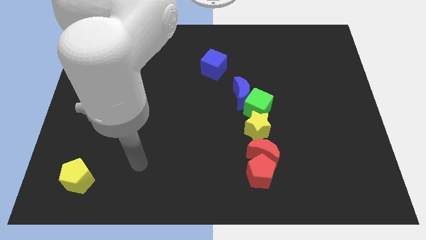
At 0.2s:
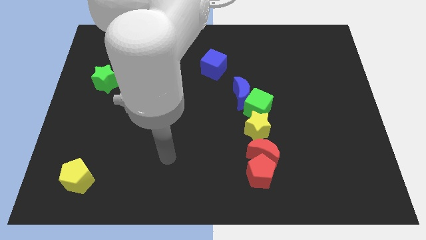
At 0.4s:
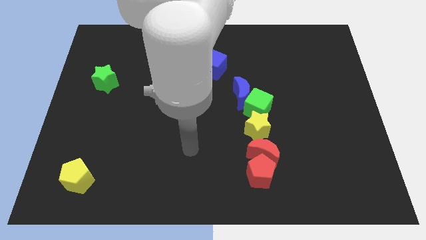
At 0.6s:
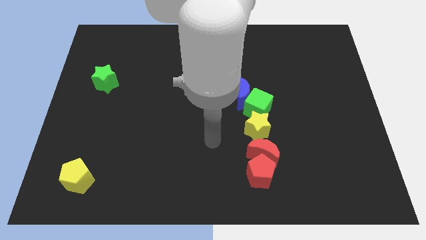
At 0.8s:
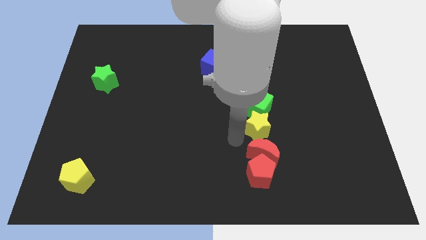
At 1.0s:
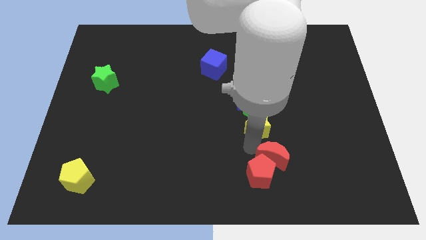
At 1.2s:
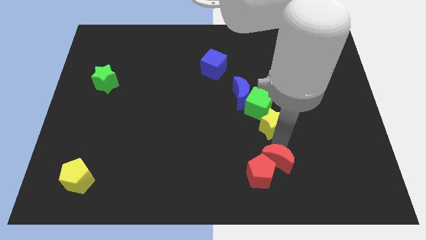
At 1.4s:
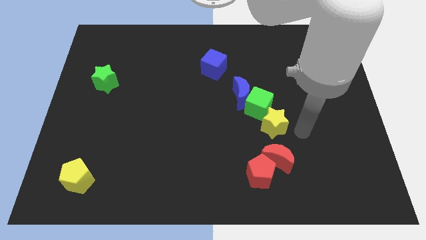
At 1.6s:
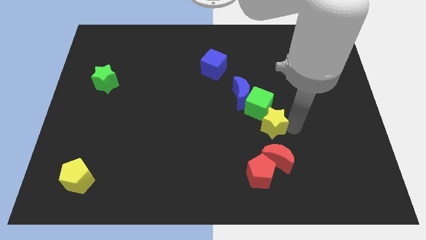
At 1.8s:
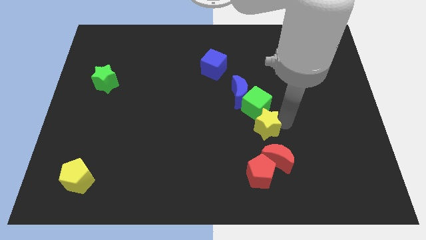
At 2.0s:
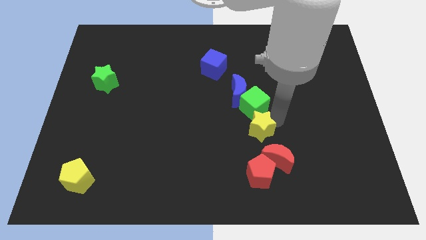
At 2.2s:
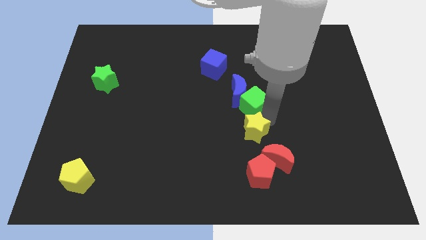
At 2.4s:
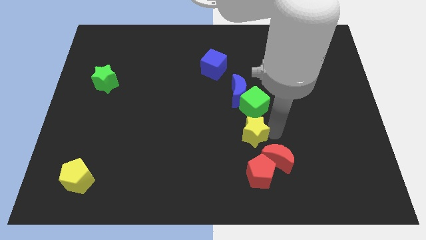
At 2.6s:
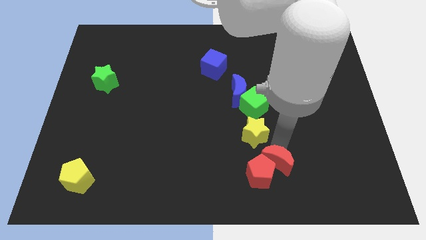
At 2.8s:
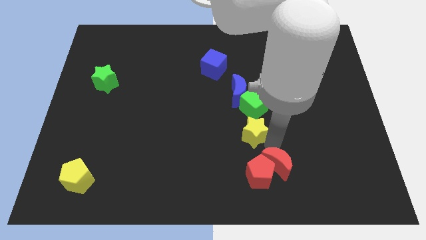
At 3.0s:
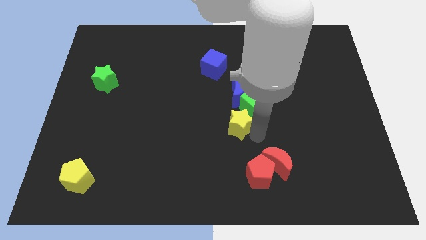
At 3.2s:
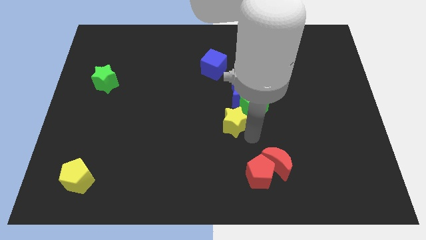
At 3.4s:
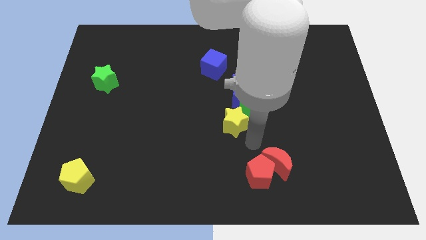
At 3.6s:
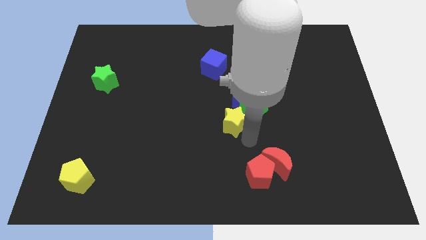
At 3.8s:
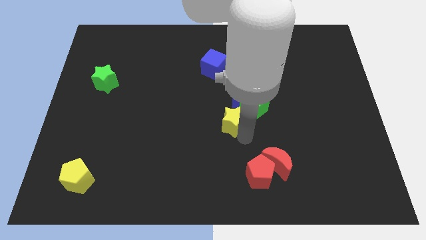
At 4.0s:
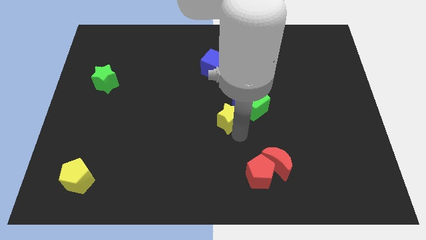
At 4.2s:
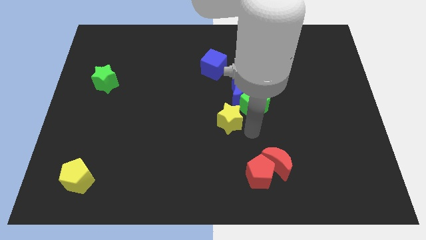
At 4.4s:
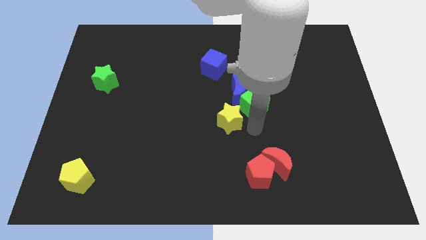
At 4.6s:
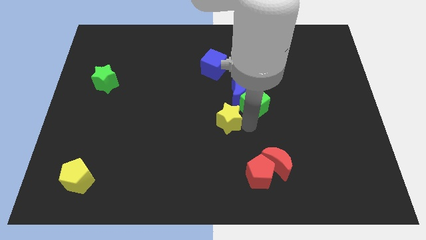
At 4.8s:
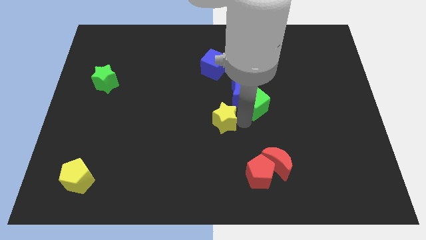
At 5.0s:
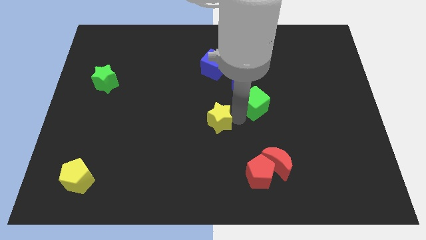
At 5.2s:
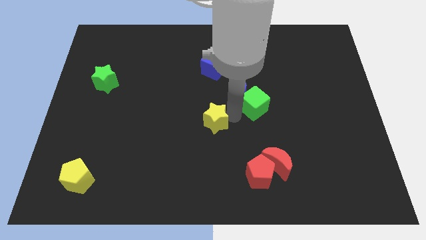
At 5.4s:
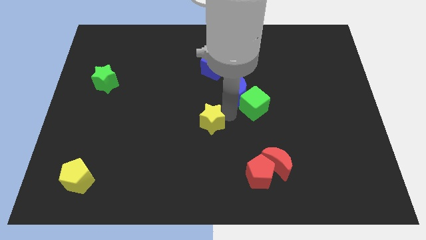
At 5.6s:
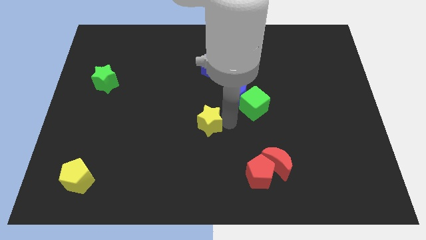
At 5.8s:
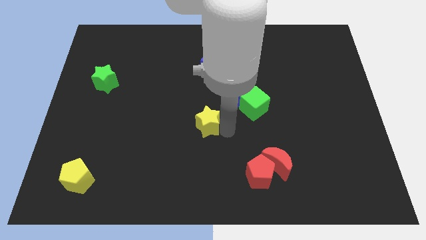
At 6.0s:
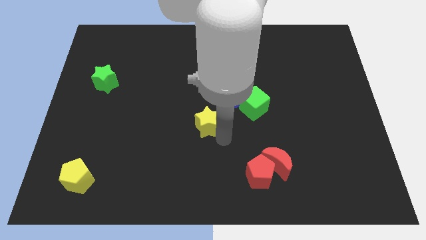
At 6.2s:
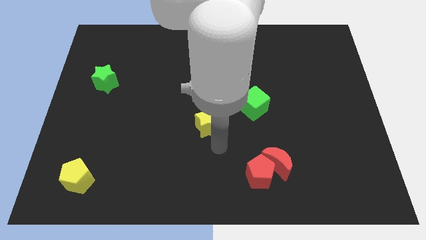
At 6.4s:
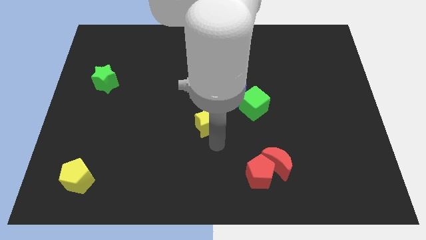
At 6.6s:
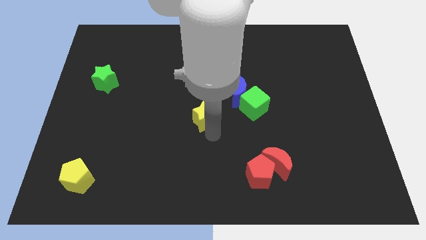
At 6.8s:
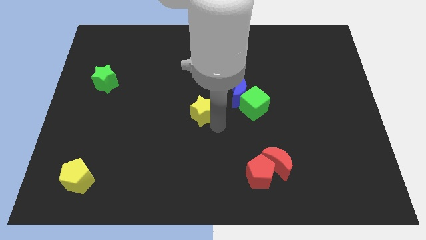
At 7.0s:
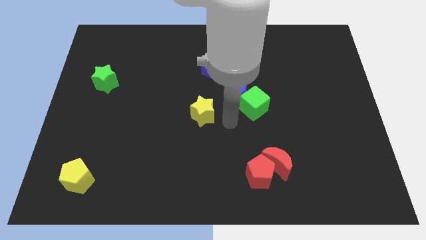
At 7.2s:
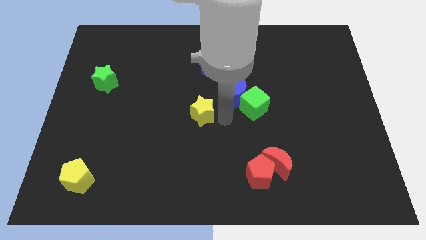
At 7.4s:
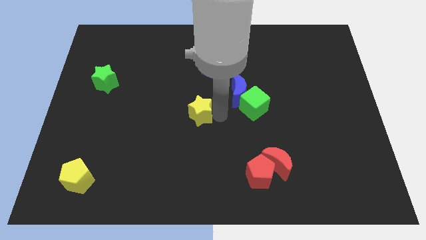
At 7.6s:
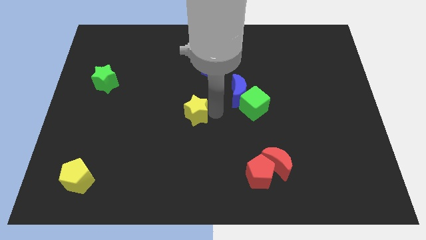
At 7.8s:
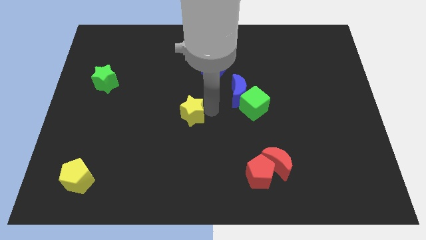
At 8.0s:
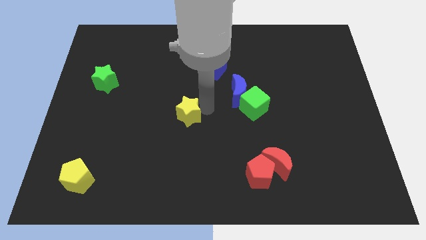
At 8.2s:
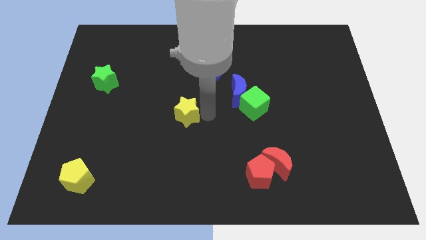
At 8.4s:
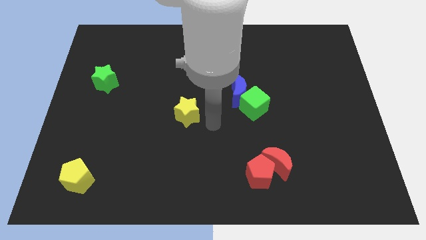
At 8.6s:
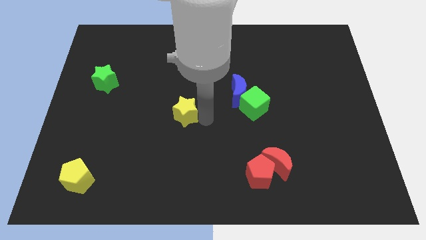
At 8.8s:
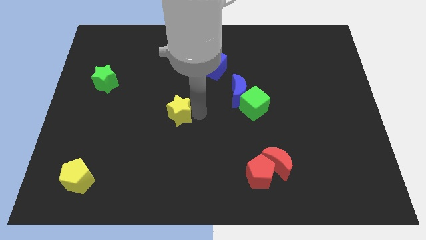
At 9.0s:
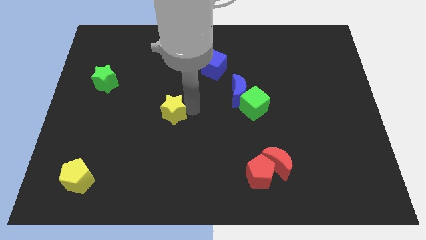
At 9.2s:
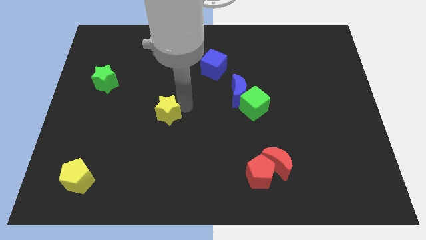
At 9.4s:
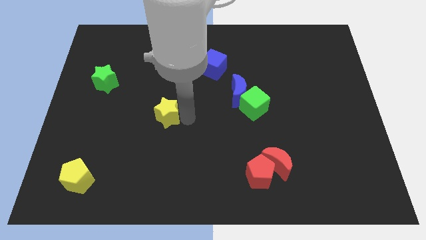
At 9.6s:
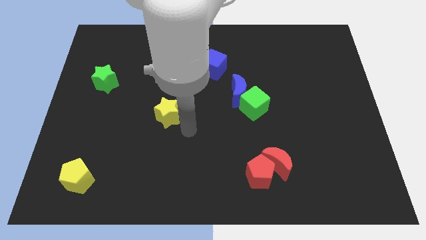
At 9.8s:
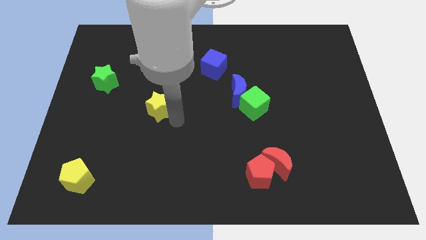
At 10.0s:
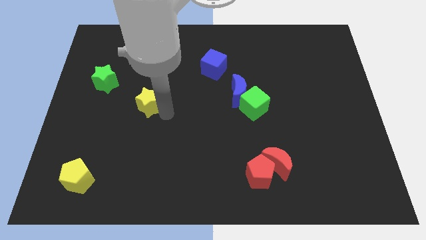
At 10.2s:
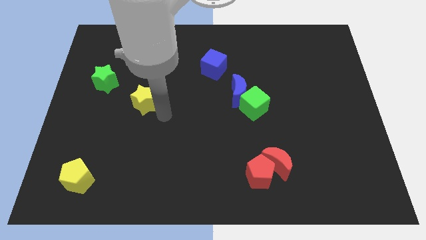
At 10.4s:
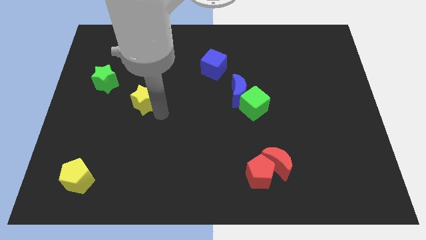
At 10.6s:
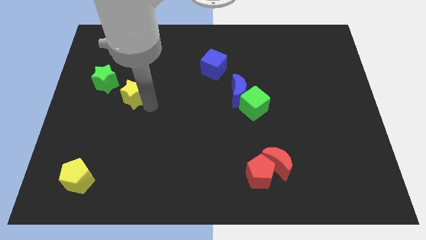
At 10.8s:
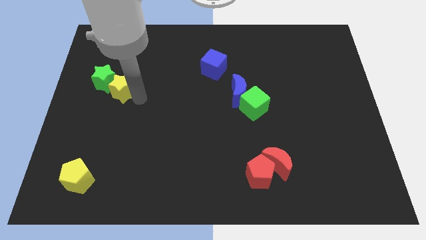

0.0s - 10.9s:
push the yellow star towards the green star

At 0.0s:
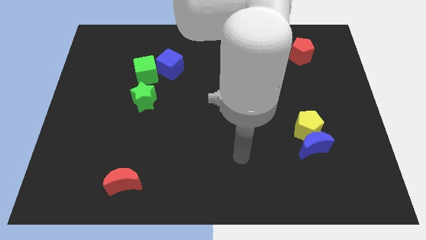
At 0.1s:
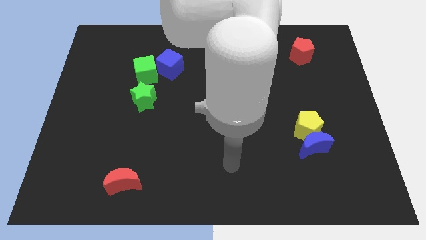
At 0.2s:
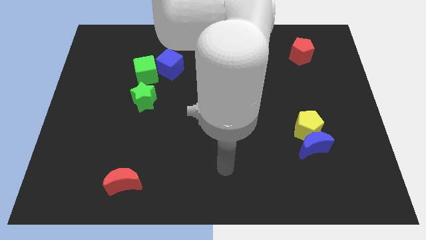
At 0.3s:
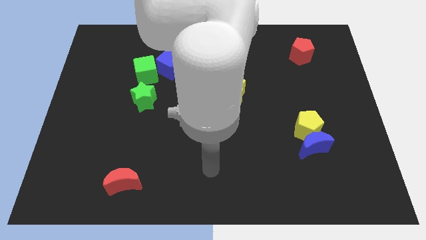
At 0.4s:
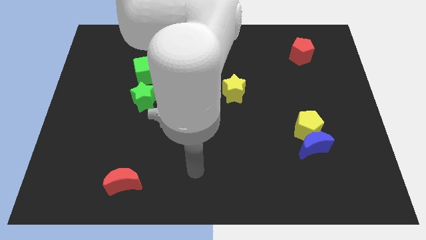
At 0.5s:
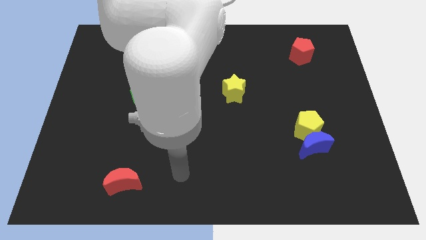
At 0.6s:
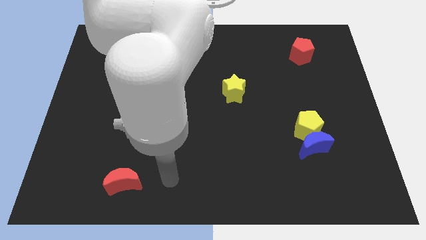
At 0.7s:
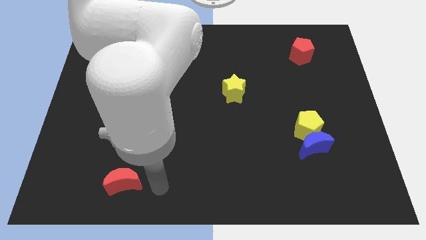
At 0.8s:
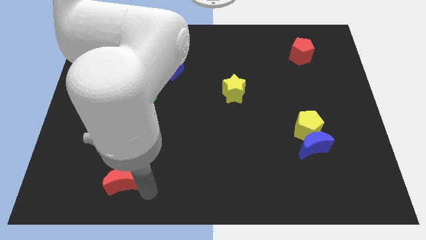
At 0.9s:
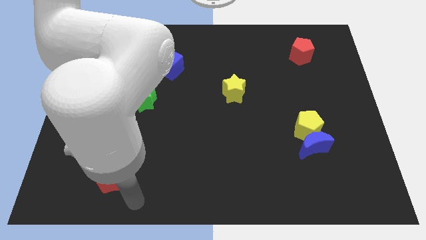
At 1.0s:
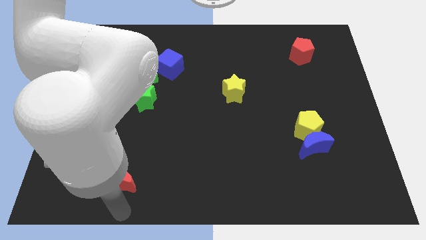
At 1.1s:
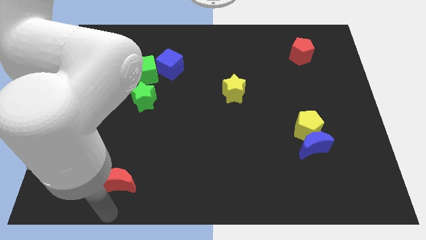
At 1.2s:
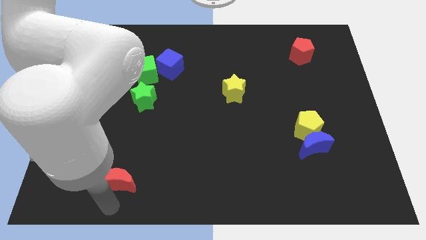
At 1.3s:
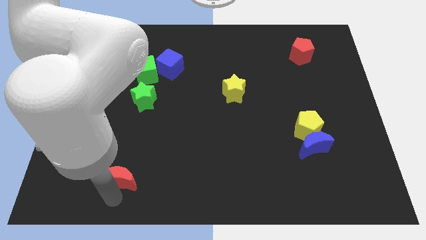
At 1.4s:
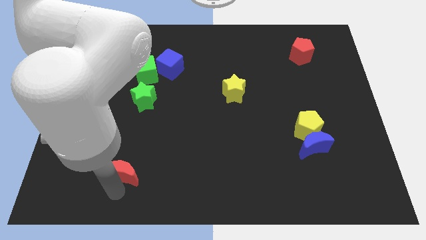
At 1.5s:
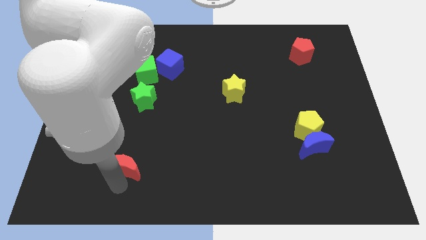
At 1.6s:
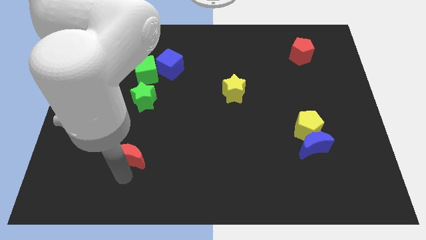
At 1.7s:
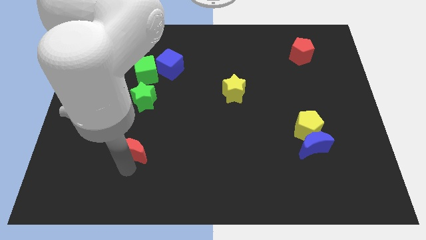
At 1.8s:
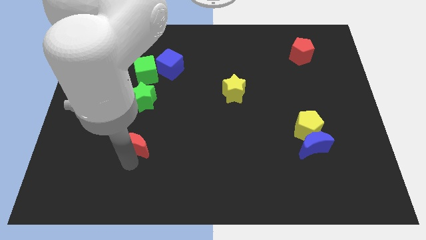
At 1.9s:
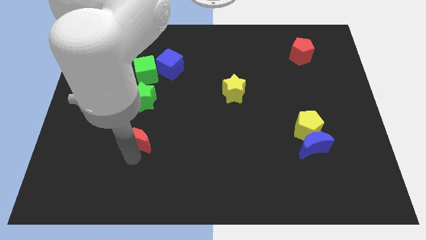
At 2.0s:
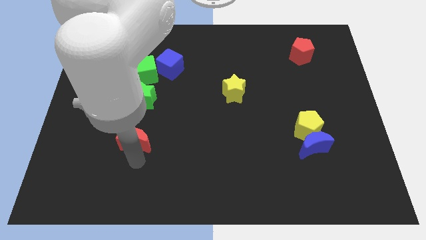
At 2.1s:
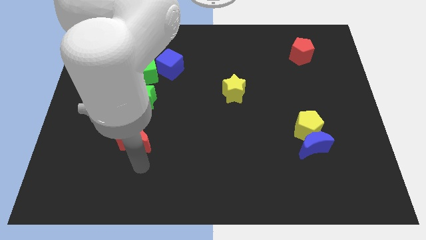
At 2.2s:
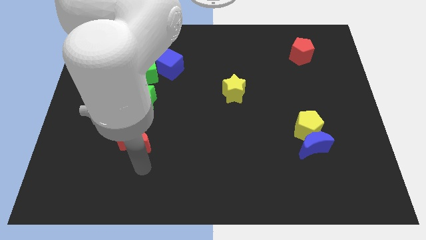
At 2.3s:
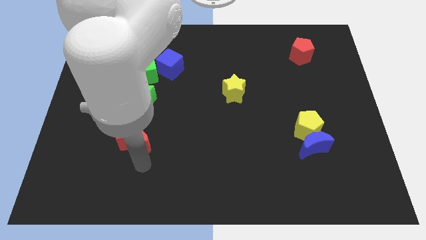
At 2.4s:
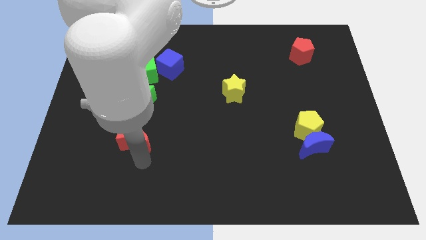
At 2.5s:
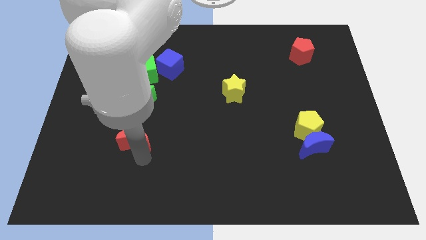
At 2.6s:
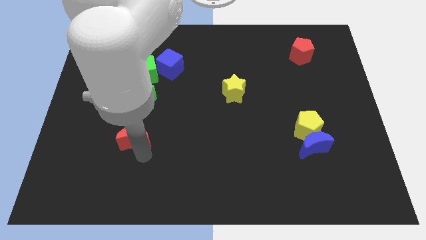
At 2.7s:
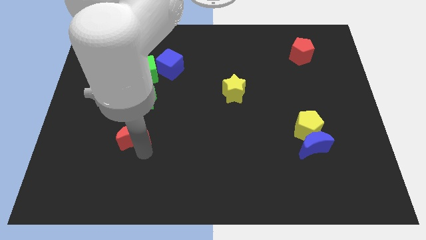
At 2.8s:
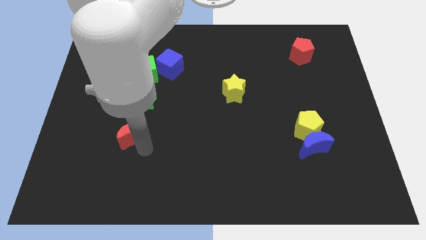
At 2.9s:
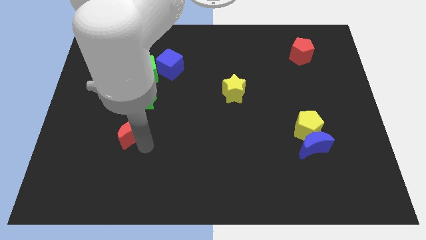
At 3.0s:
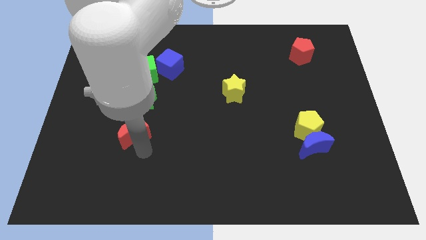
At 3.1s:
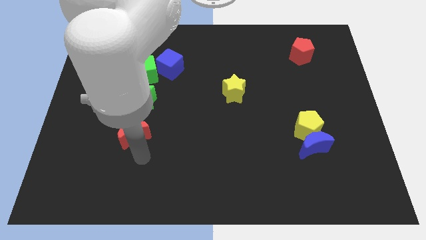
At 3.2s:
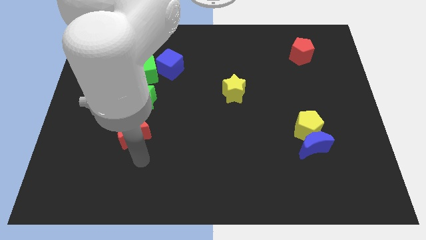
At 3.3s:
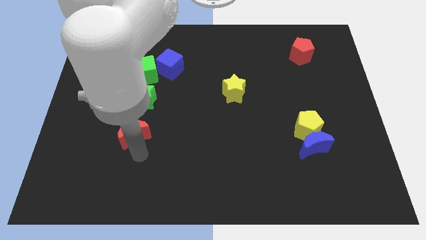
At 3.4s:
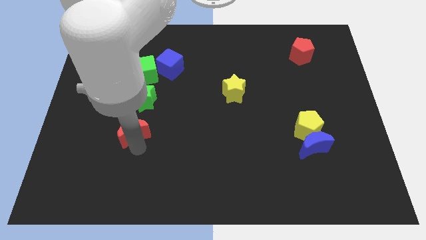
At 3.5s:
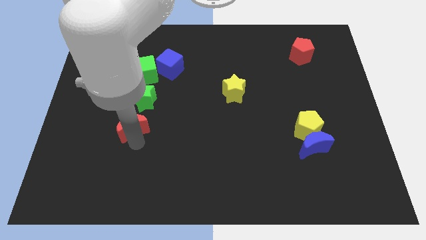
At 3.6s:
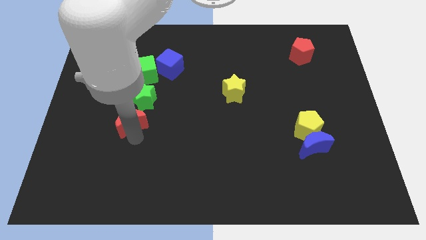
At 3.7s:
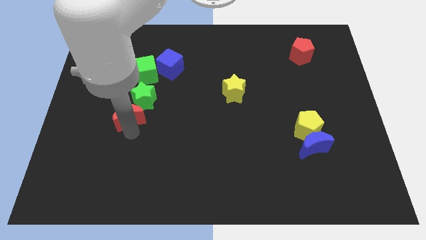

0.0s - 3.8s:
move the red moon to the green star
